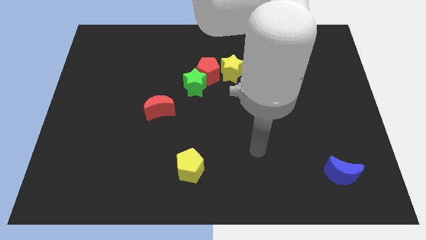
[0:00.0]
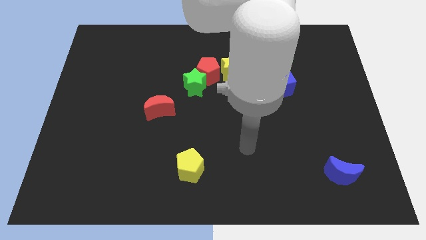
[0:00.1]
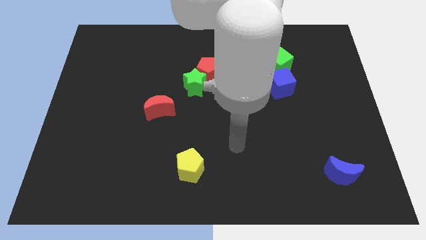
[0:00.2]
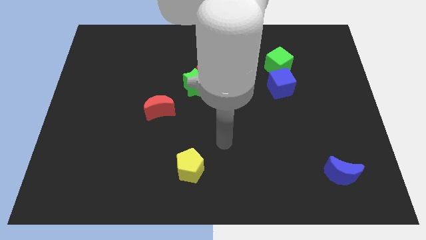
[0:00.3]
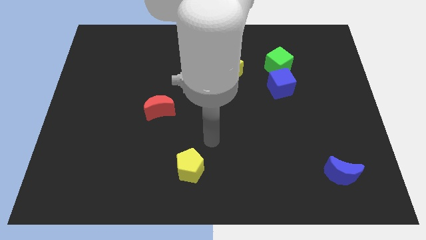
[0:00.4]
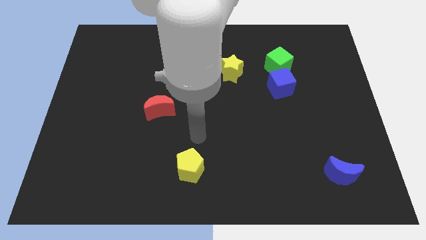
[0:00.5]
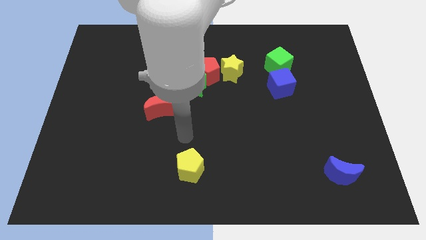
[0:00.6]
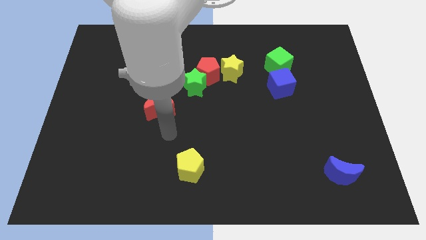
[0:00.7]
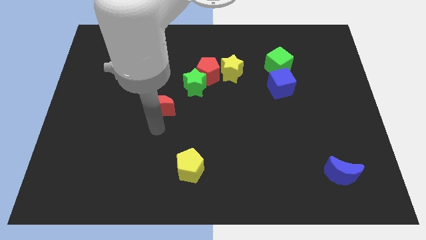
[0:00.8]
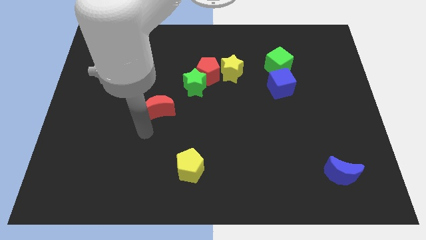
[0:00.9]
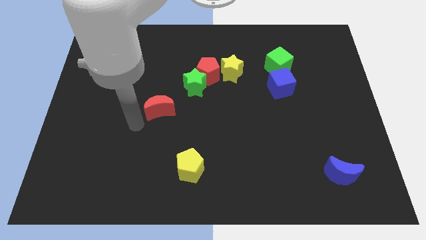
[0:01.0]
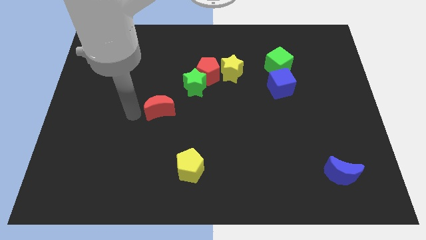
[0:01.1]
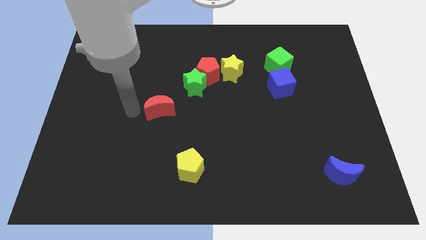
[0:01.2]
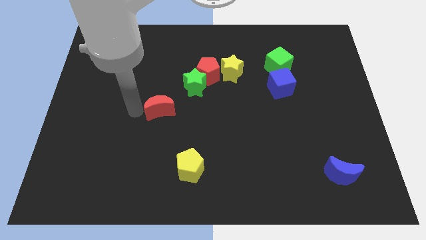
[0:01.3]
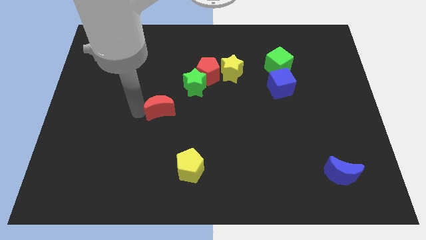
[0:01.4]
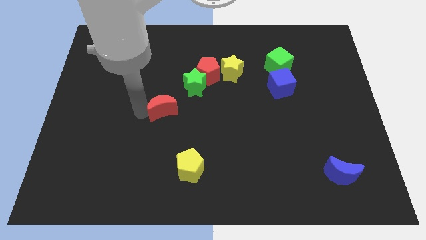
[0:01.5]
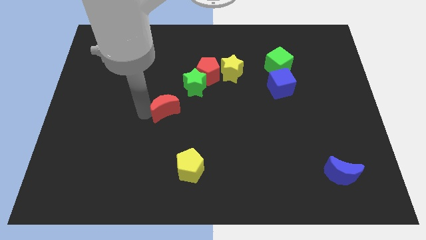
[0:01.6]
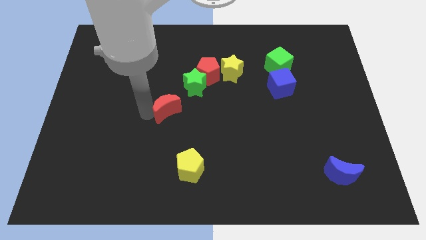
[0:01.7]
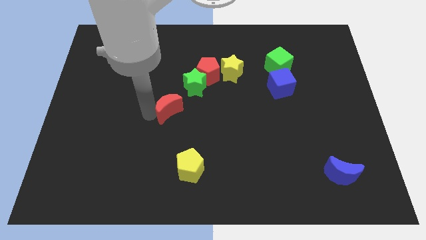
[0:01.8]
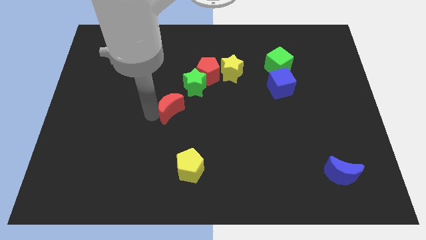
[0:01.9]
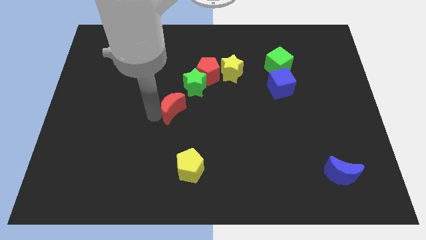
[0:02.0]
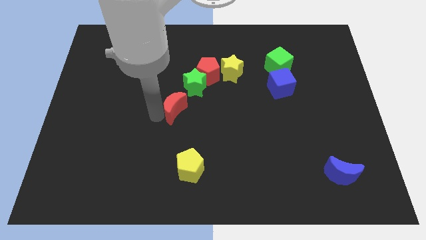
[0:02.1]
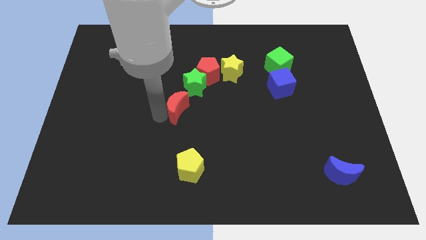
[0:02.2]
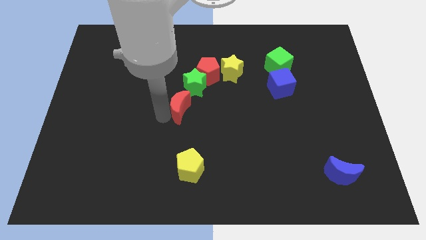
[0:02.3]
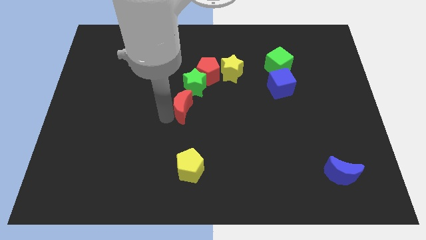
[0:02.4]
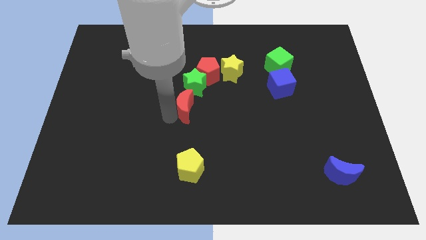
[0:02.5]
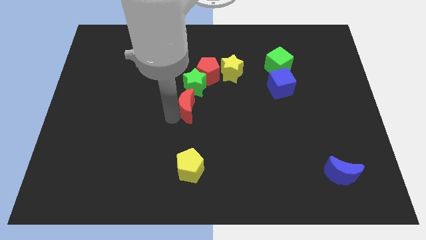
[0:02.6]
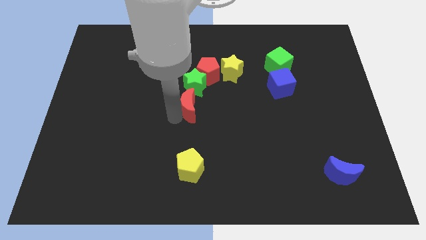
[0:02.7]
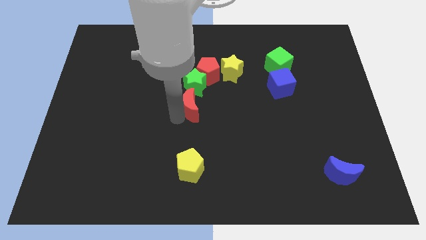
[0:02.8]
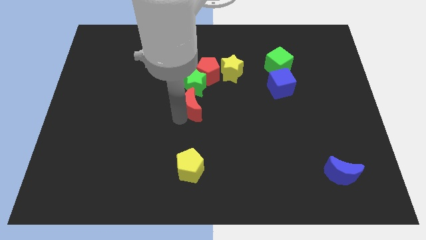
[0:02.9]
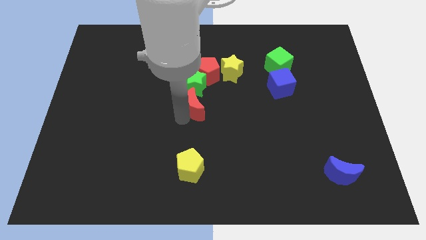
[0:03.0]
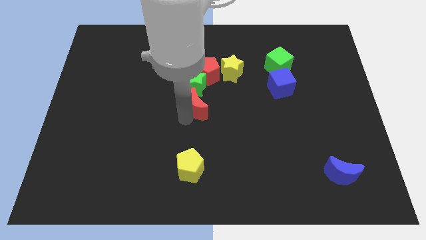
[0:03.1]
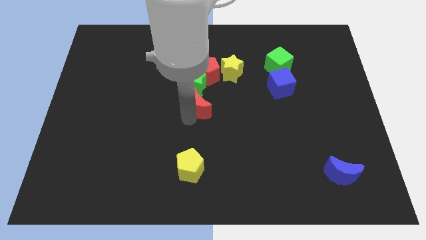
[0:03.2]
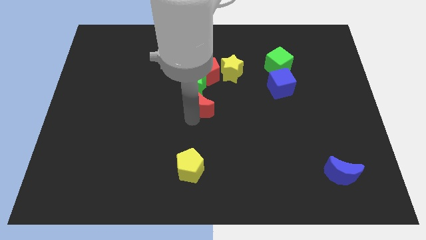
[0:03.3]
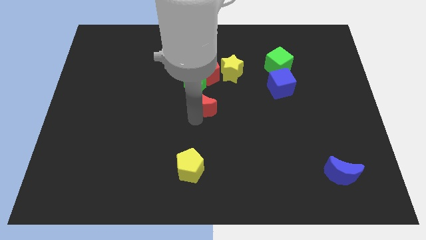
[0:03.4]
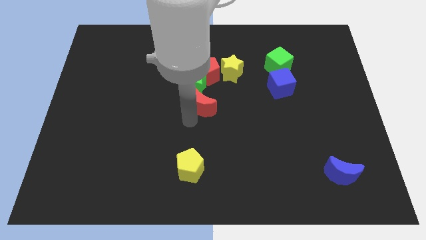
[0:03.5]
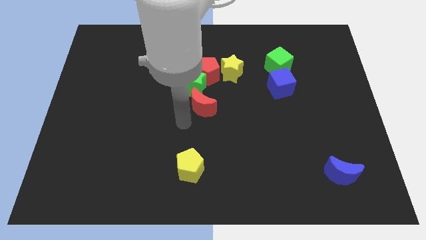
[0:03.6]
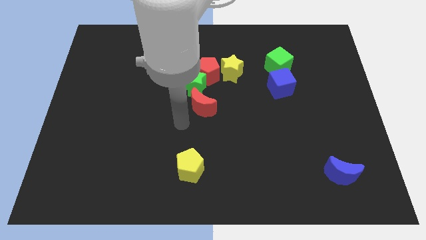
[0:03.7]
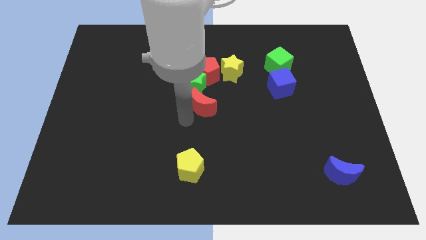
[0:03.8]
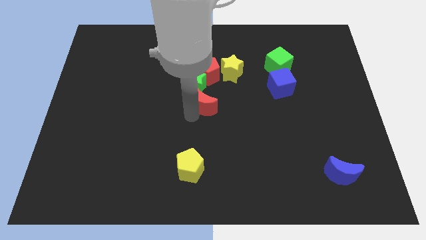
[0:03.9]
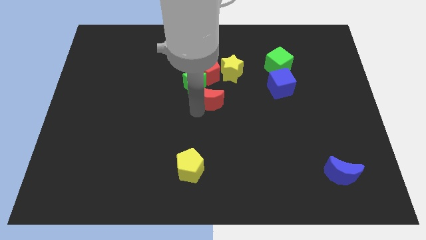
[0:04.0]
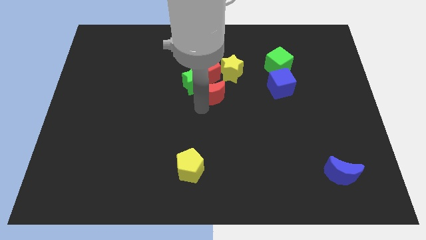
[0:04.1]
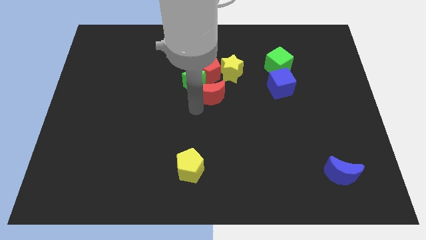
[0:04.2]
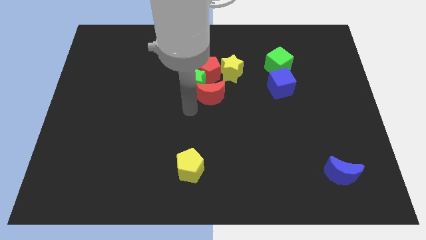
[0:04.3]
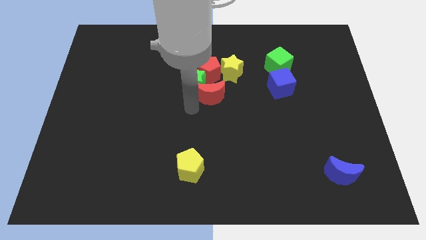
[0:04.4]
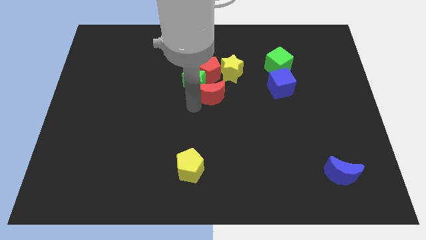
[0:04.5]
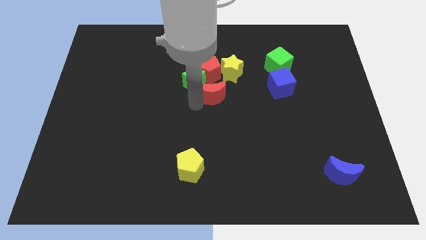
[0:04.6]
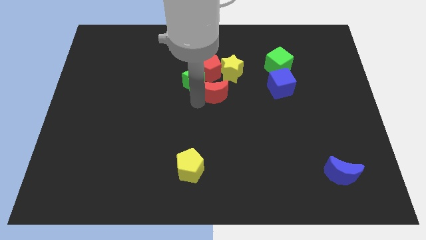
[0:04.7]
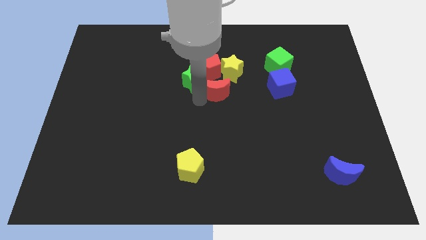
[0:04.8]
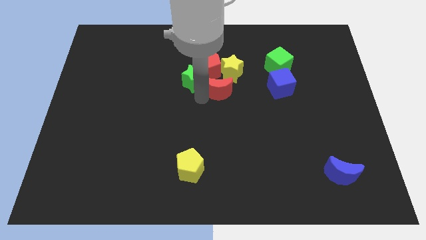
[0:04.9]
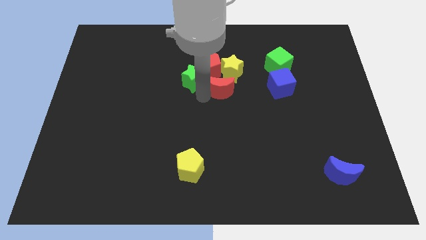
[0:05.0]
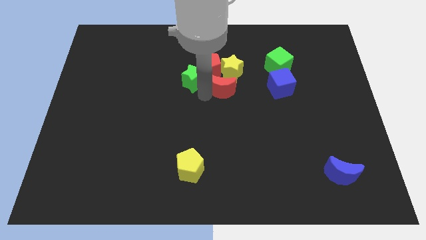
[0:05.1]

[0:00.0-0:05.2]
push the red moon close to the yellow star

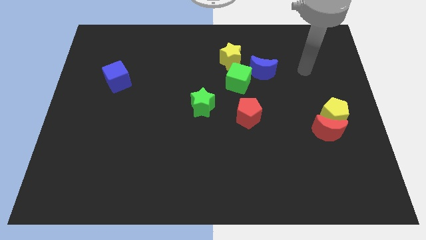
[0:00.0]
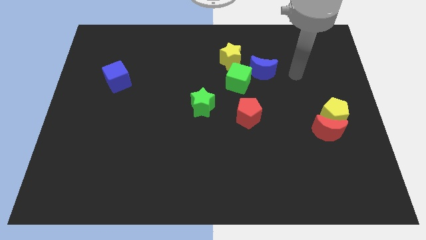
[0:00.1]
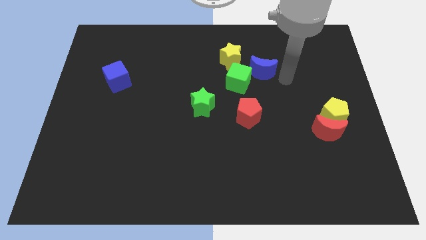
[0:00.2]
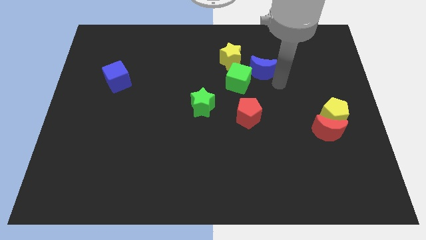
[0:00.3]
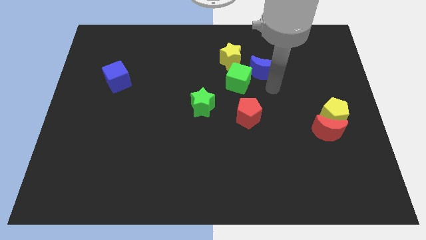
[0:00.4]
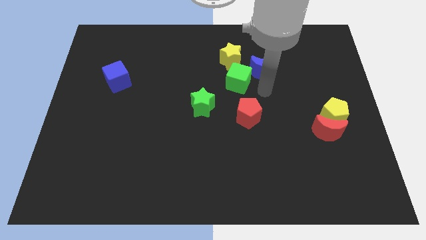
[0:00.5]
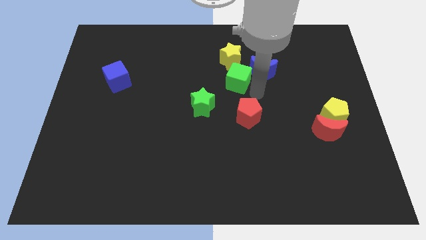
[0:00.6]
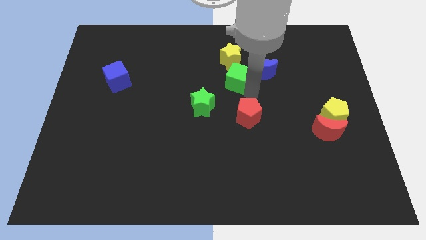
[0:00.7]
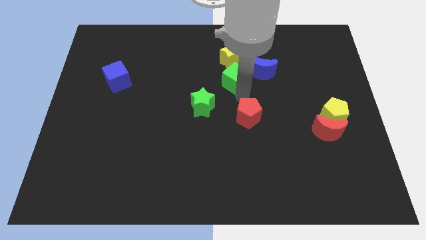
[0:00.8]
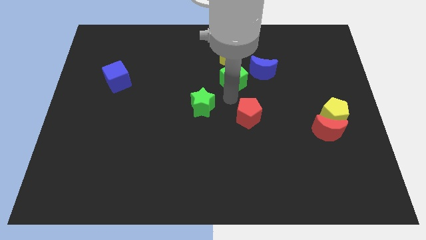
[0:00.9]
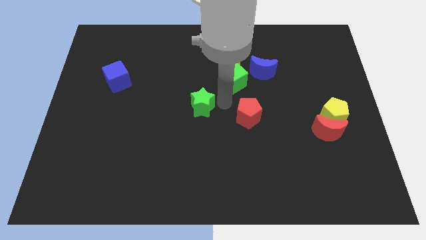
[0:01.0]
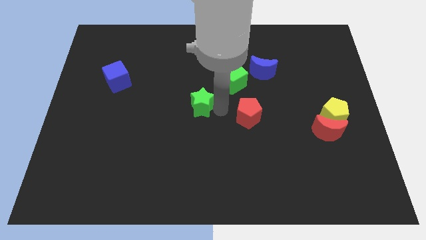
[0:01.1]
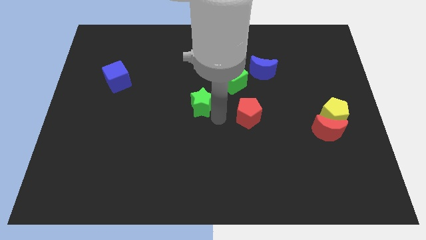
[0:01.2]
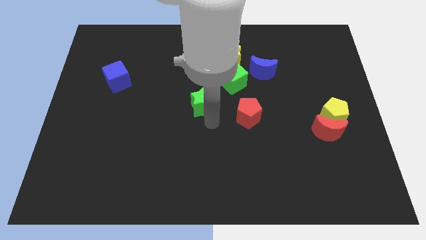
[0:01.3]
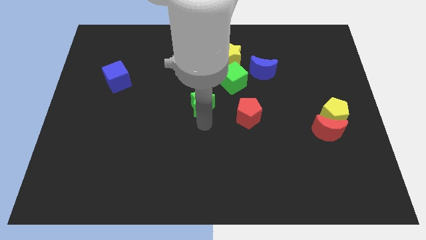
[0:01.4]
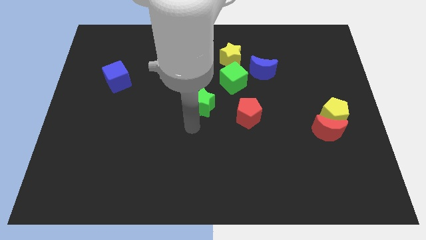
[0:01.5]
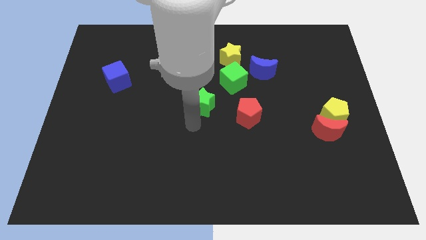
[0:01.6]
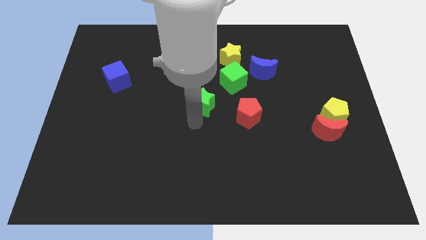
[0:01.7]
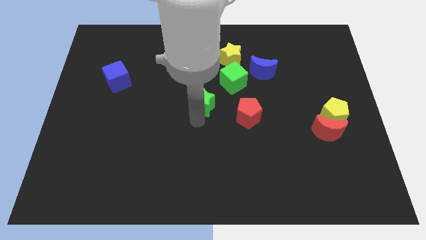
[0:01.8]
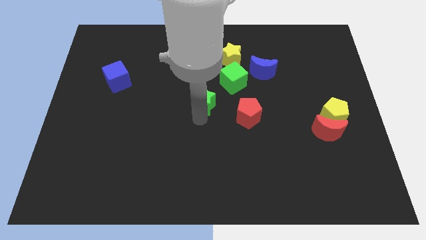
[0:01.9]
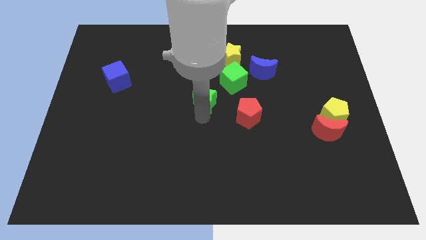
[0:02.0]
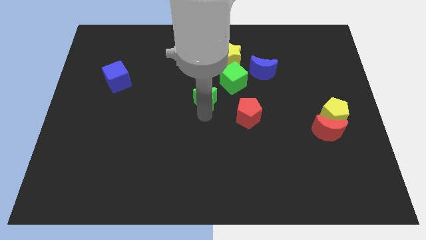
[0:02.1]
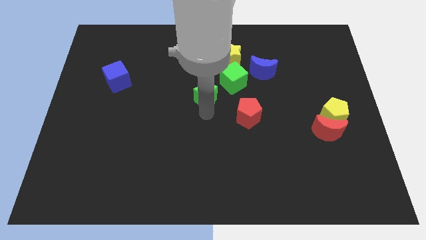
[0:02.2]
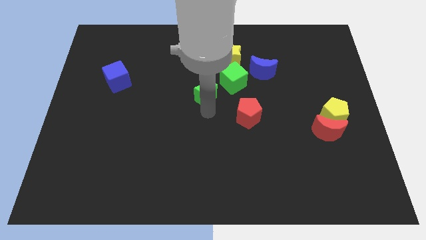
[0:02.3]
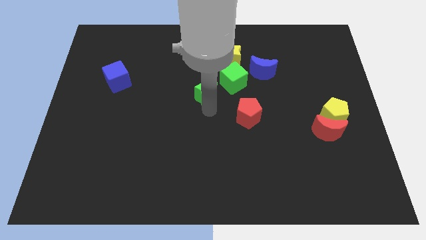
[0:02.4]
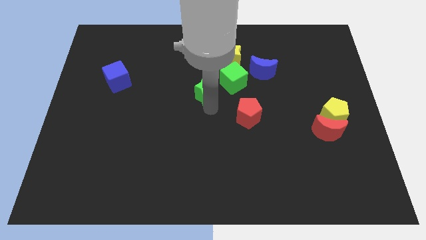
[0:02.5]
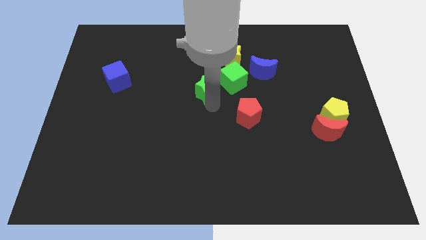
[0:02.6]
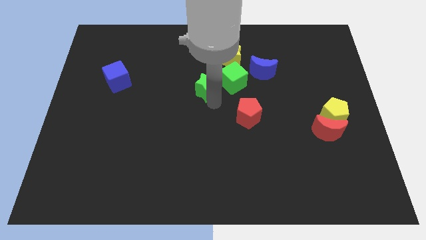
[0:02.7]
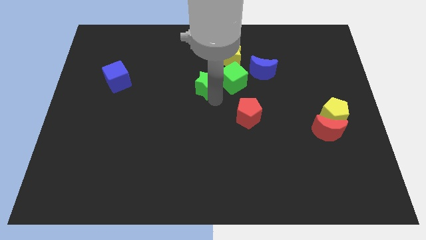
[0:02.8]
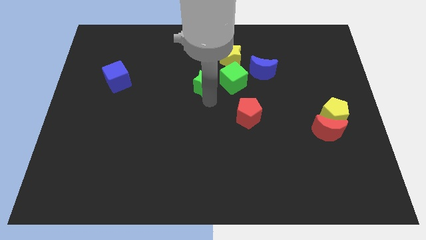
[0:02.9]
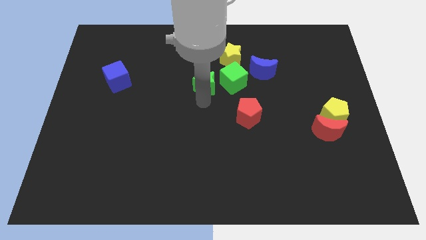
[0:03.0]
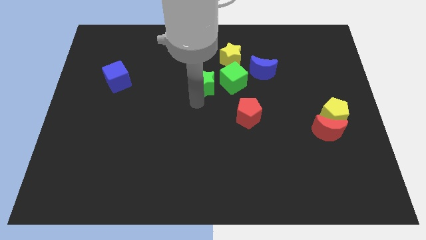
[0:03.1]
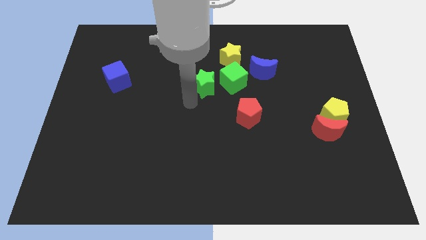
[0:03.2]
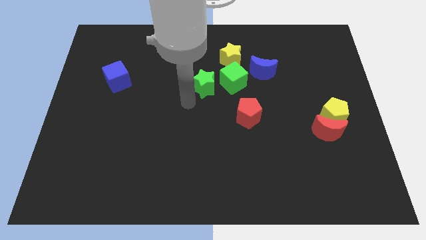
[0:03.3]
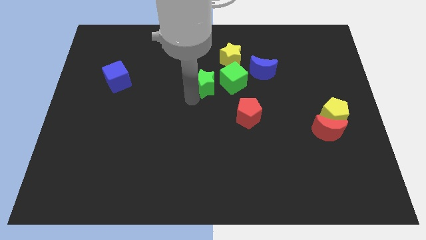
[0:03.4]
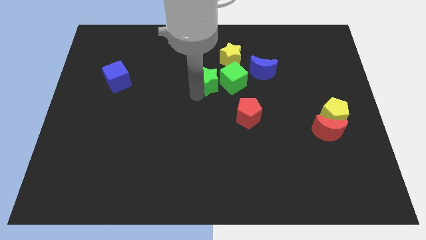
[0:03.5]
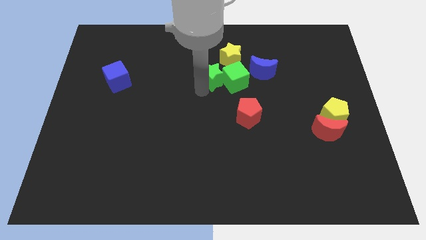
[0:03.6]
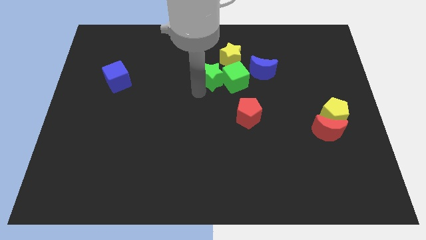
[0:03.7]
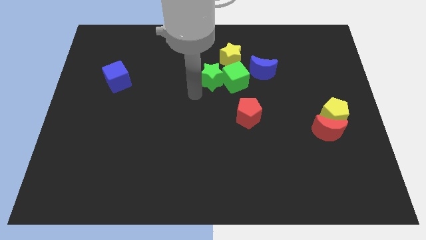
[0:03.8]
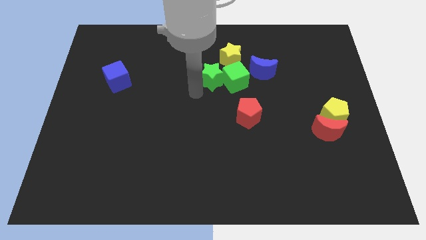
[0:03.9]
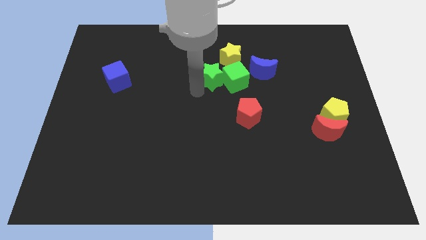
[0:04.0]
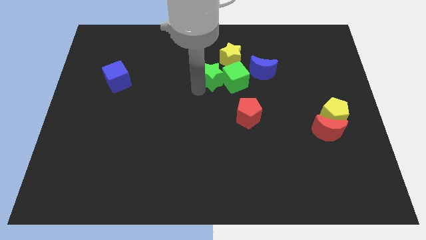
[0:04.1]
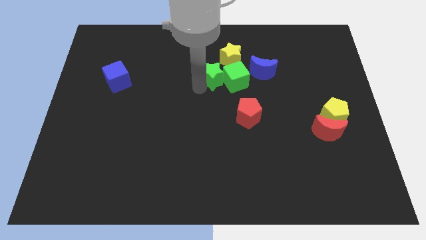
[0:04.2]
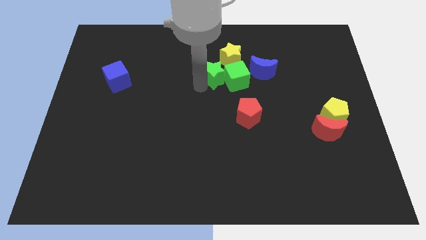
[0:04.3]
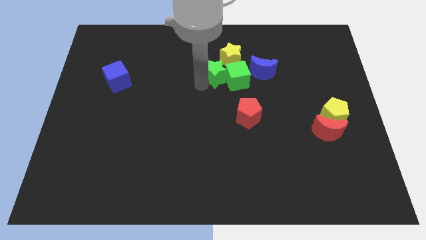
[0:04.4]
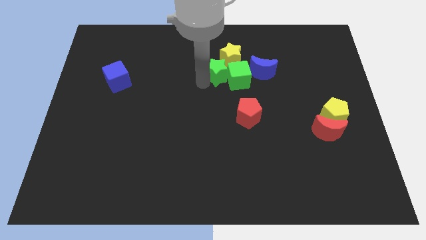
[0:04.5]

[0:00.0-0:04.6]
put the green star to the yellow star
